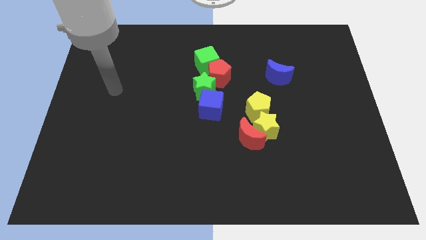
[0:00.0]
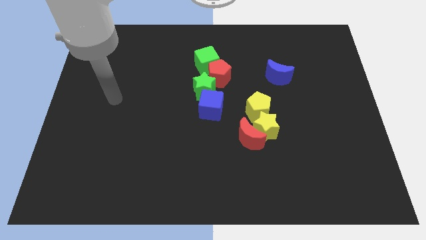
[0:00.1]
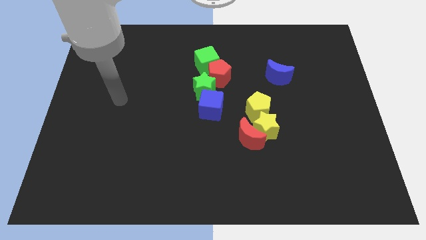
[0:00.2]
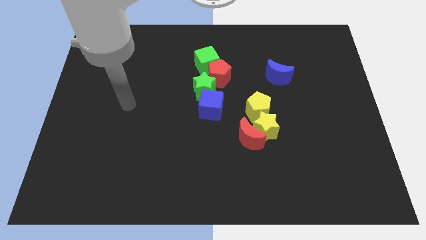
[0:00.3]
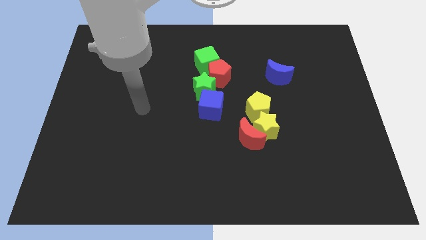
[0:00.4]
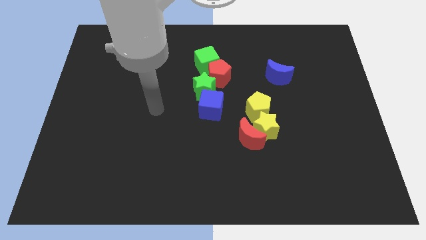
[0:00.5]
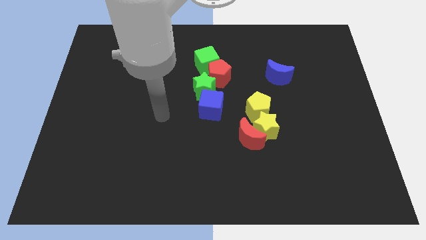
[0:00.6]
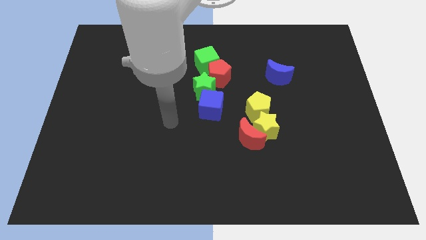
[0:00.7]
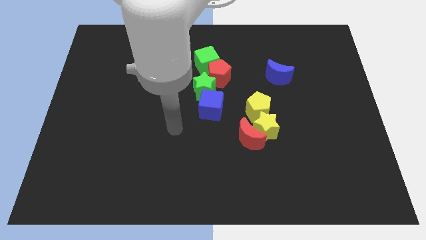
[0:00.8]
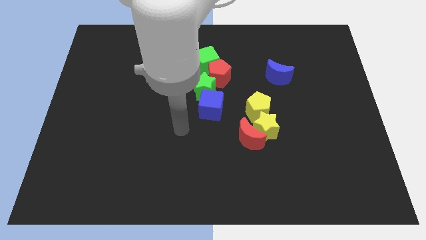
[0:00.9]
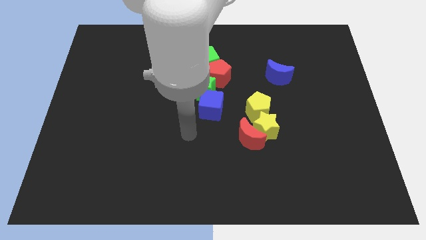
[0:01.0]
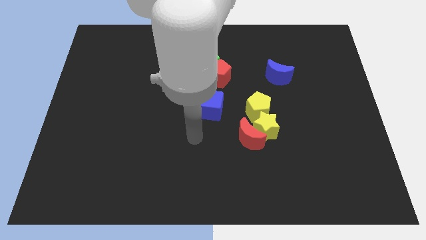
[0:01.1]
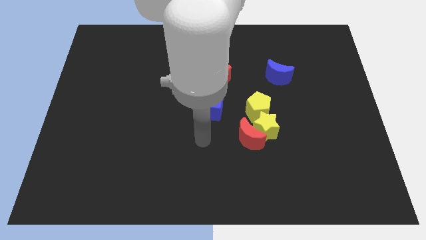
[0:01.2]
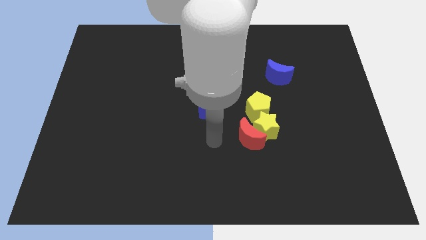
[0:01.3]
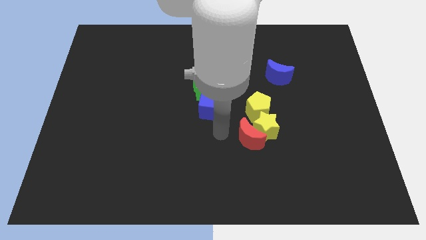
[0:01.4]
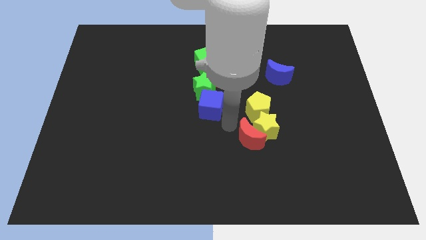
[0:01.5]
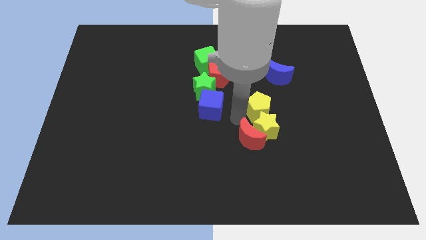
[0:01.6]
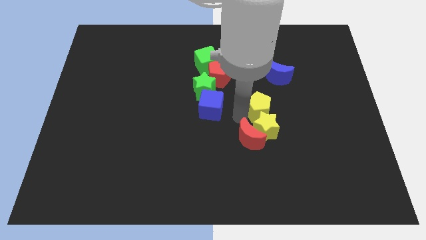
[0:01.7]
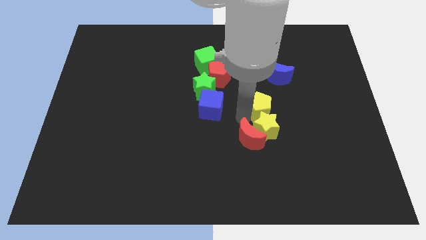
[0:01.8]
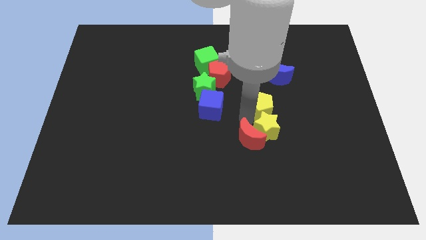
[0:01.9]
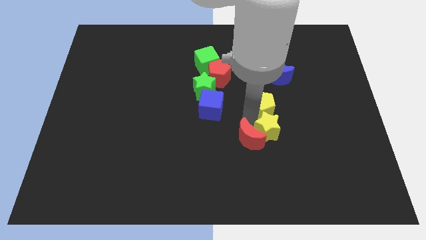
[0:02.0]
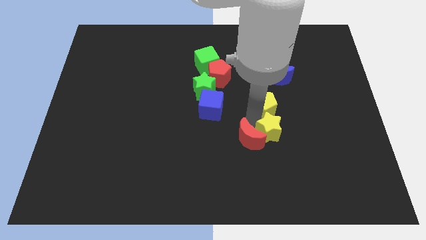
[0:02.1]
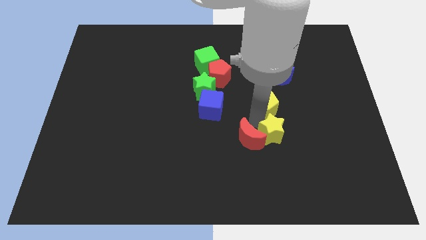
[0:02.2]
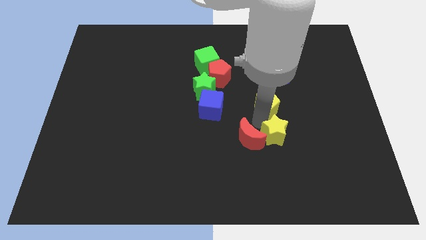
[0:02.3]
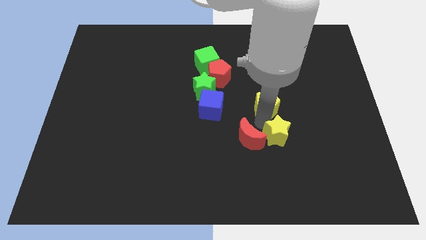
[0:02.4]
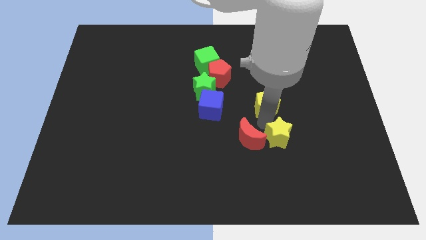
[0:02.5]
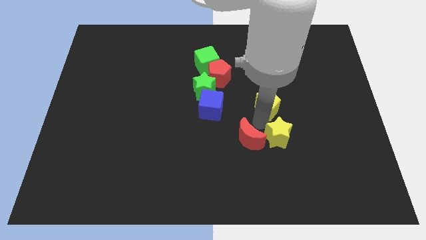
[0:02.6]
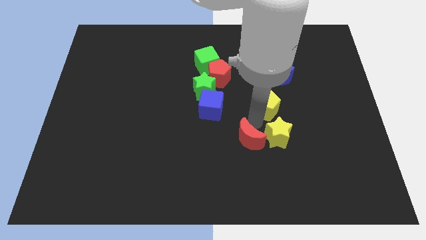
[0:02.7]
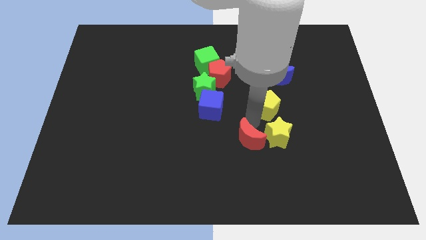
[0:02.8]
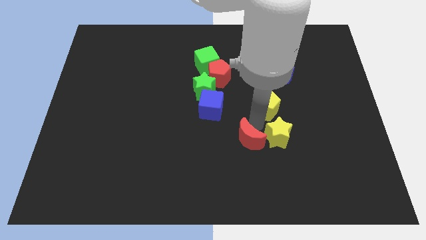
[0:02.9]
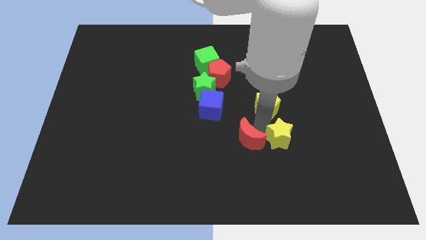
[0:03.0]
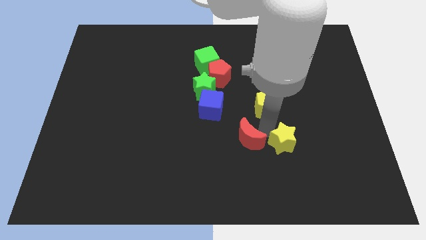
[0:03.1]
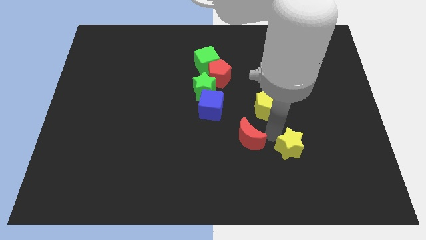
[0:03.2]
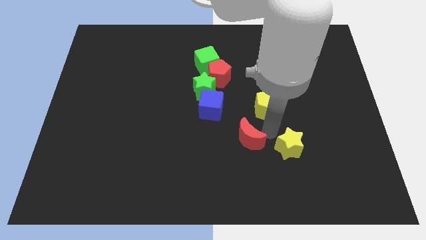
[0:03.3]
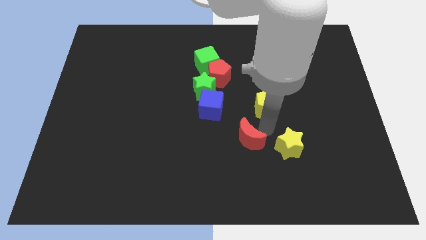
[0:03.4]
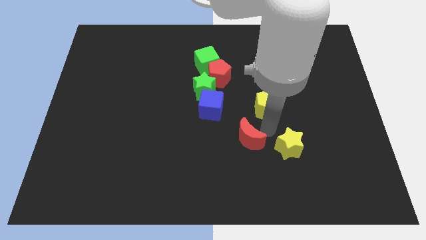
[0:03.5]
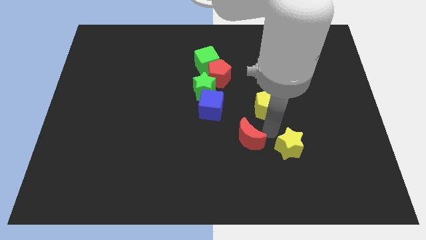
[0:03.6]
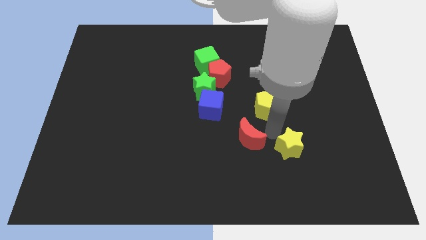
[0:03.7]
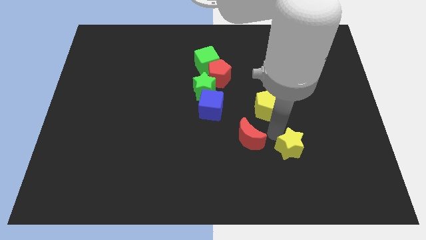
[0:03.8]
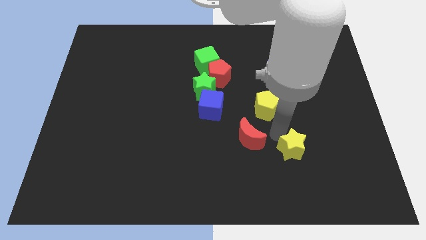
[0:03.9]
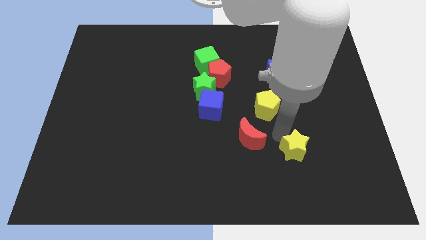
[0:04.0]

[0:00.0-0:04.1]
move the yellow star away from the red moon and yellow pentagon

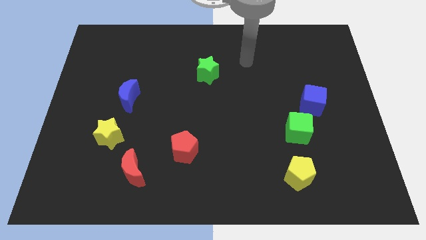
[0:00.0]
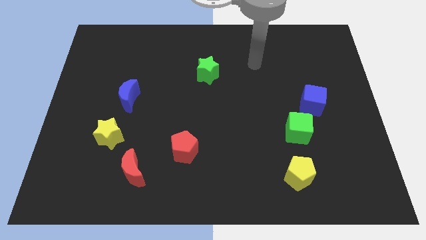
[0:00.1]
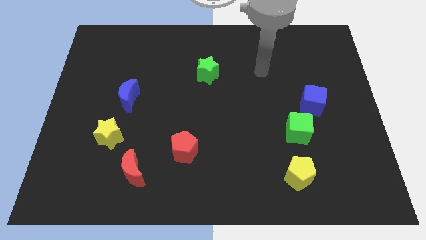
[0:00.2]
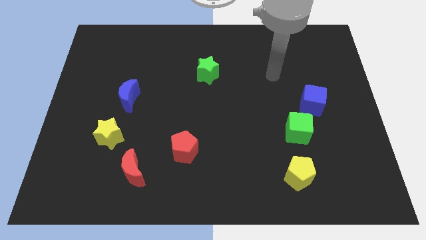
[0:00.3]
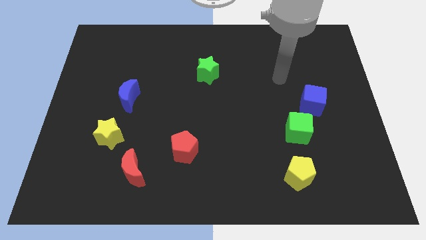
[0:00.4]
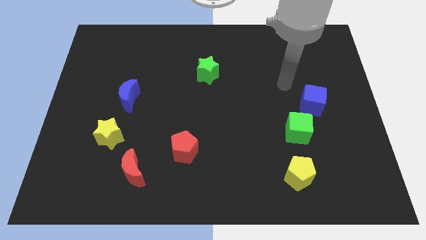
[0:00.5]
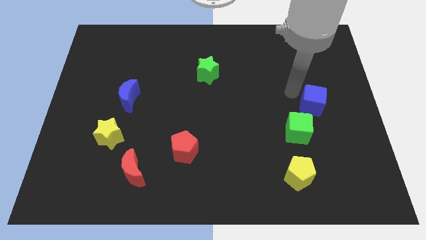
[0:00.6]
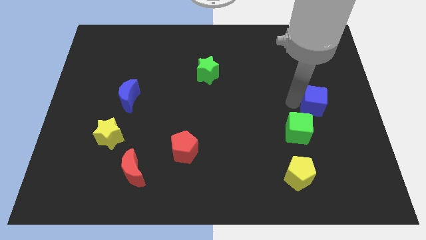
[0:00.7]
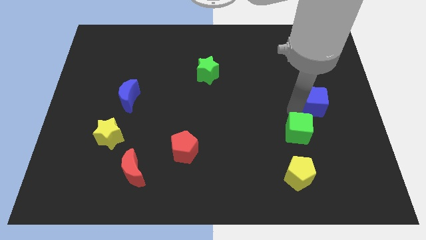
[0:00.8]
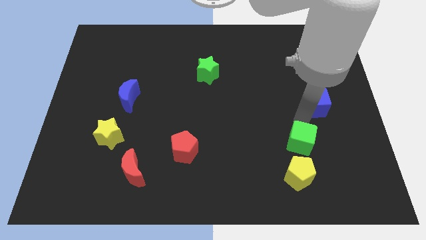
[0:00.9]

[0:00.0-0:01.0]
move the blue cube away from the green cube

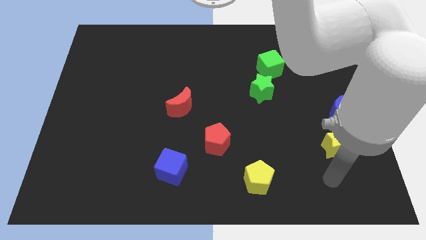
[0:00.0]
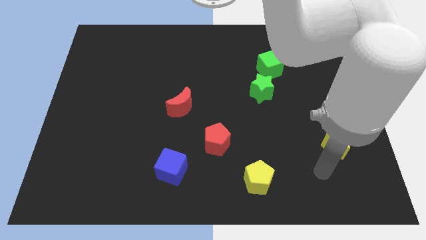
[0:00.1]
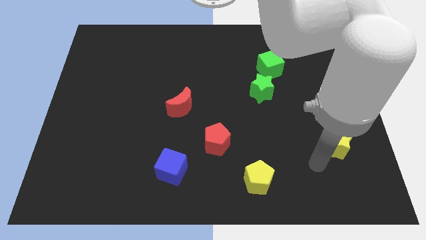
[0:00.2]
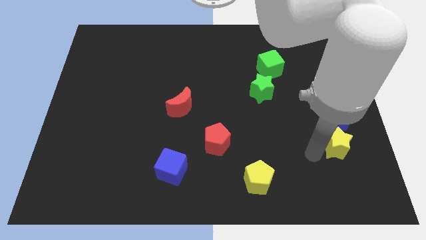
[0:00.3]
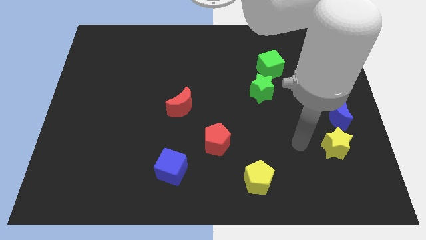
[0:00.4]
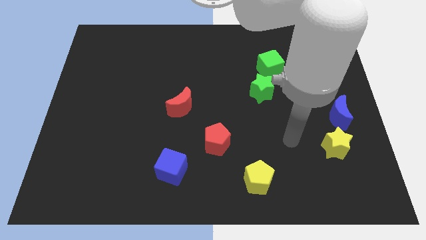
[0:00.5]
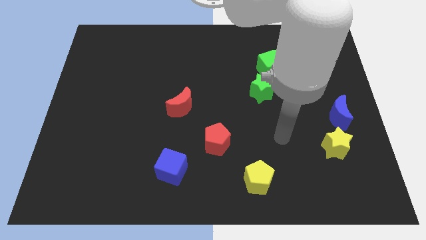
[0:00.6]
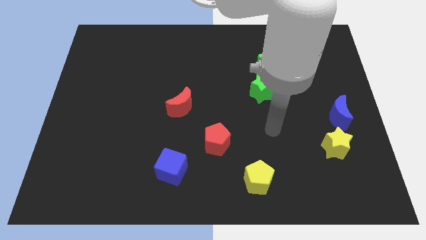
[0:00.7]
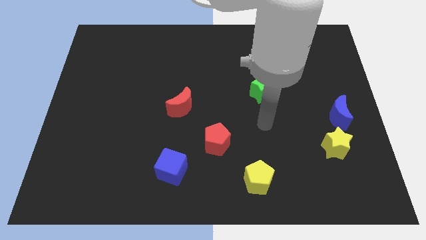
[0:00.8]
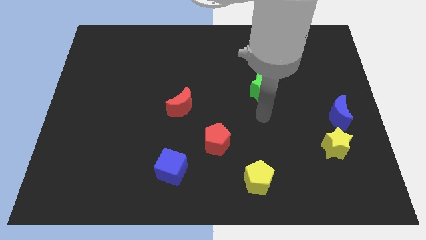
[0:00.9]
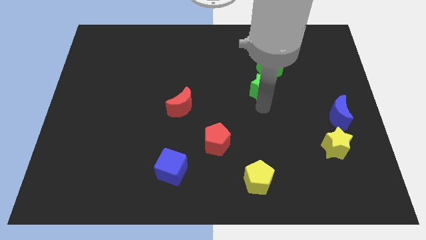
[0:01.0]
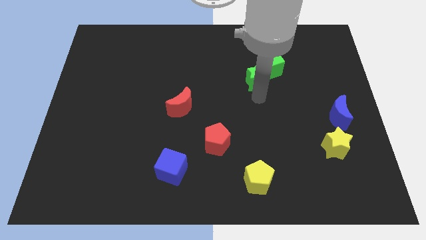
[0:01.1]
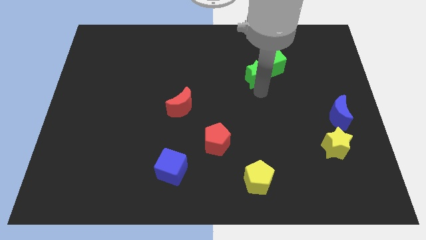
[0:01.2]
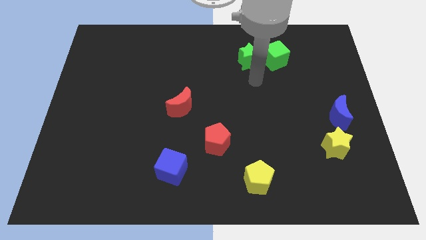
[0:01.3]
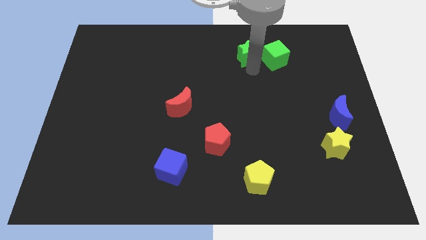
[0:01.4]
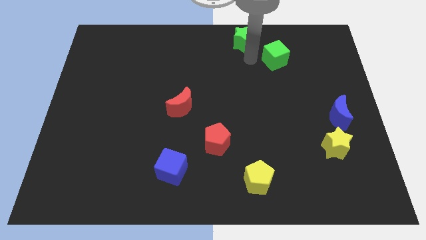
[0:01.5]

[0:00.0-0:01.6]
move the green cube away from the green star

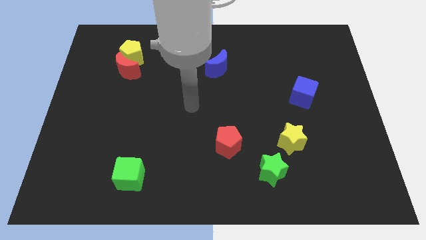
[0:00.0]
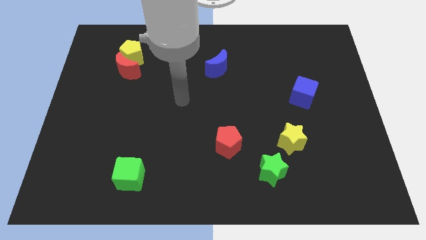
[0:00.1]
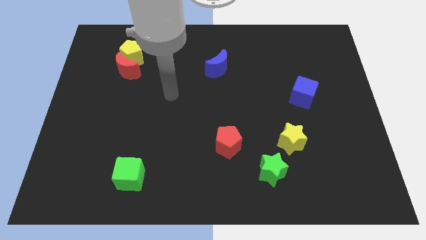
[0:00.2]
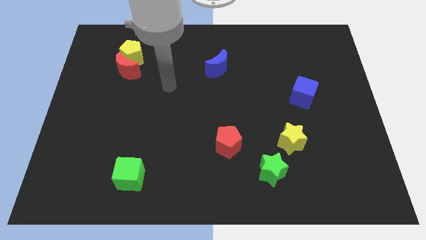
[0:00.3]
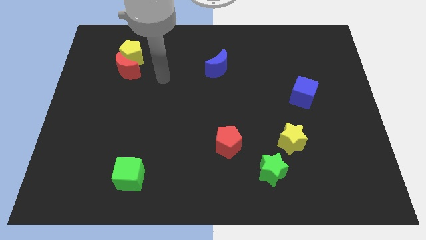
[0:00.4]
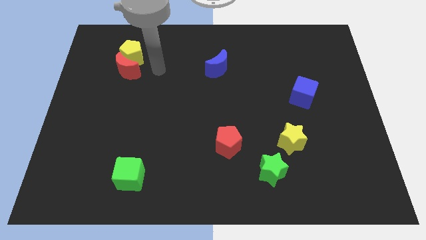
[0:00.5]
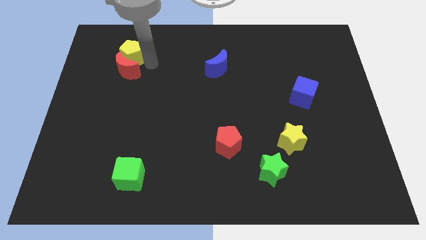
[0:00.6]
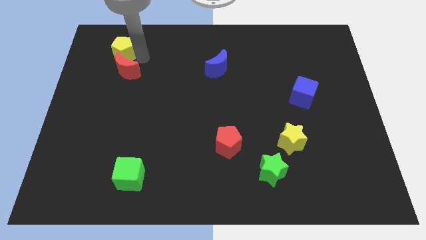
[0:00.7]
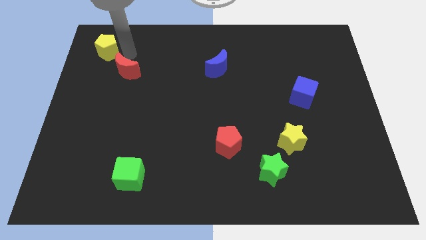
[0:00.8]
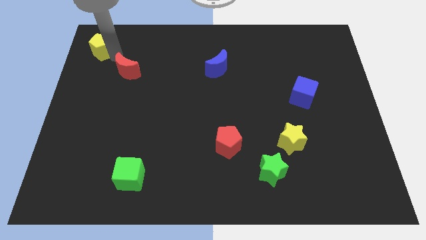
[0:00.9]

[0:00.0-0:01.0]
separate the red moon from the yellow pentagon

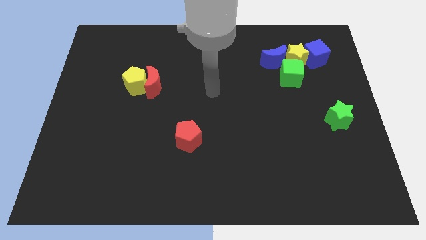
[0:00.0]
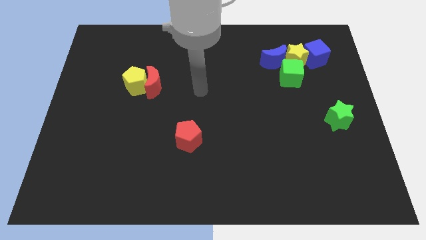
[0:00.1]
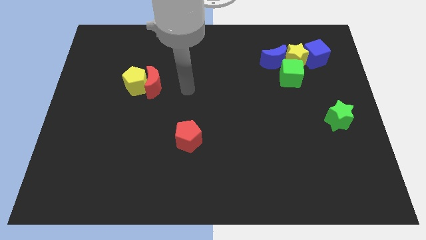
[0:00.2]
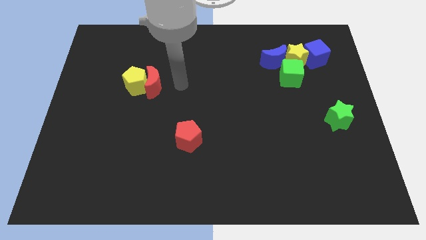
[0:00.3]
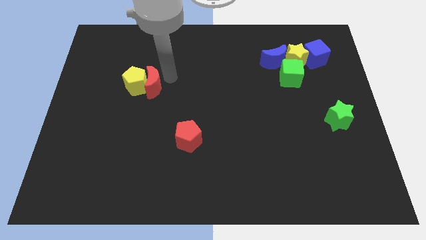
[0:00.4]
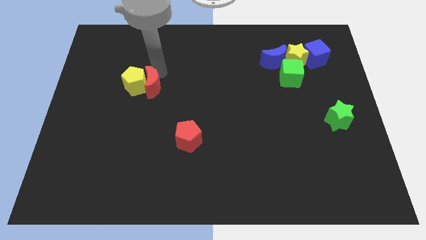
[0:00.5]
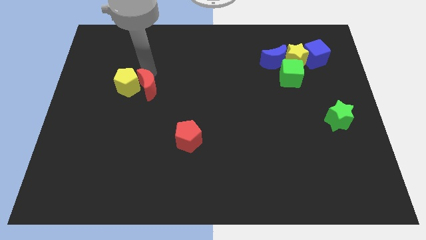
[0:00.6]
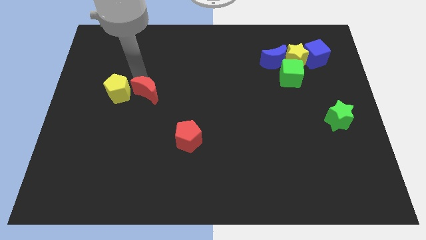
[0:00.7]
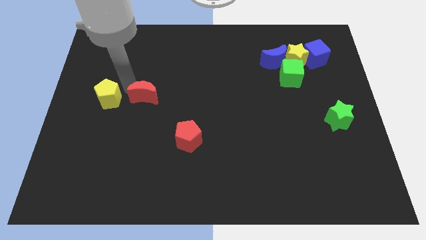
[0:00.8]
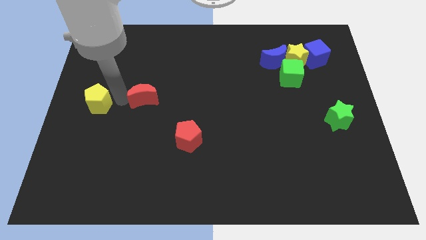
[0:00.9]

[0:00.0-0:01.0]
move the red moon away from the yellow pentagon

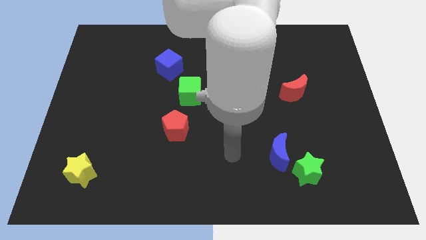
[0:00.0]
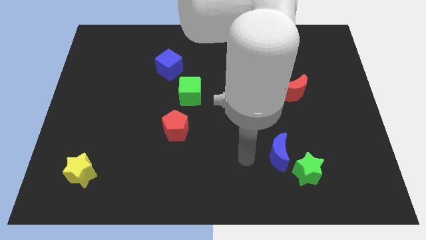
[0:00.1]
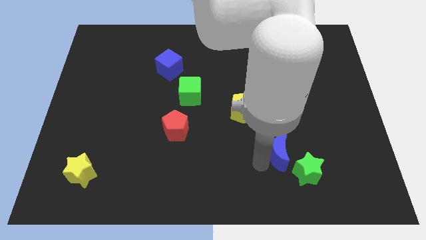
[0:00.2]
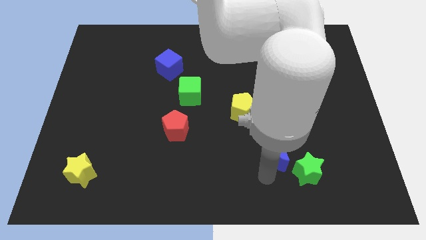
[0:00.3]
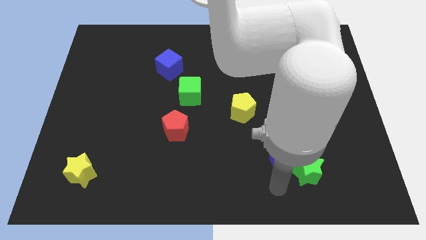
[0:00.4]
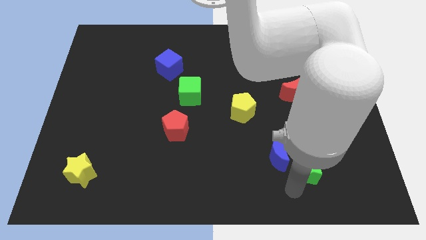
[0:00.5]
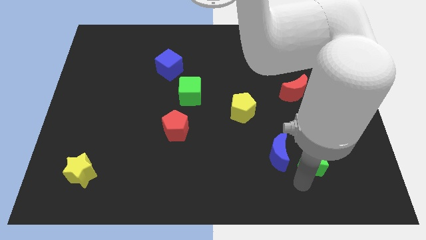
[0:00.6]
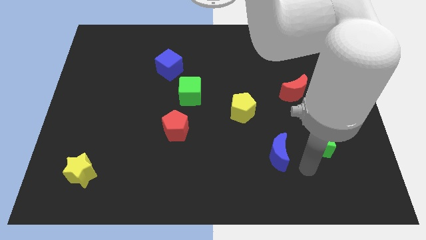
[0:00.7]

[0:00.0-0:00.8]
separate the blue moon from the green star
